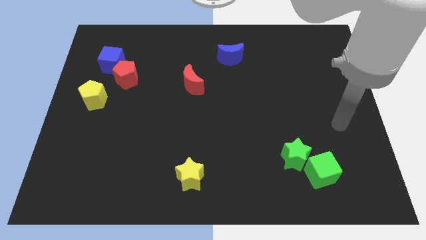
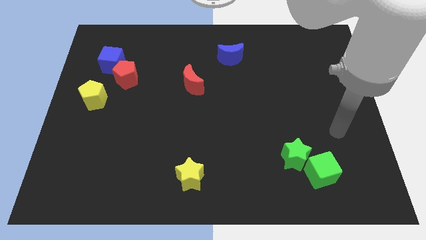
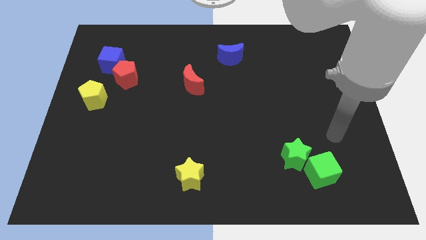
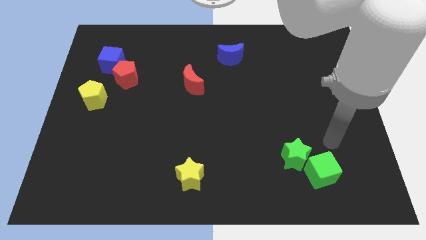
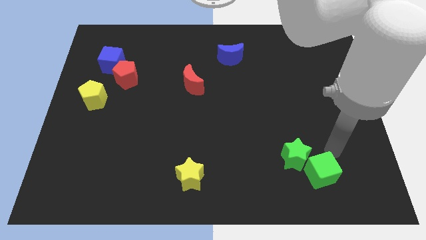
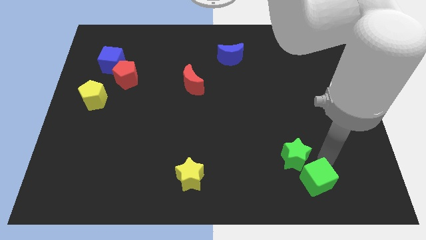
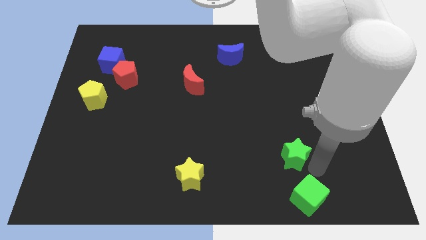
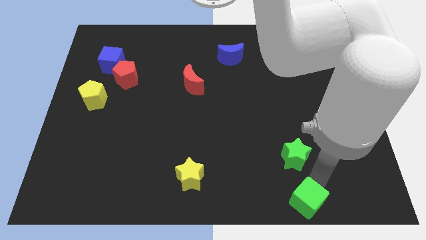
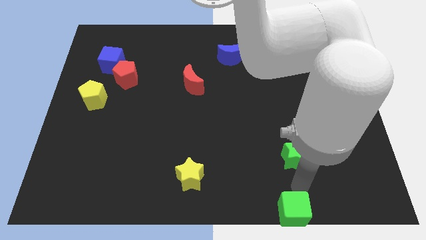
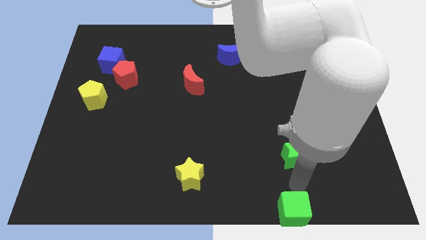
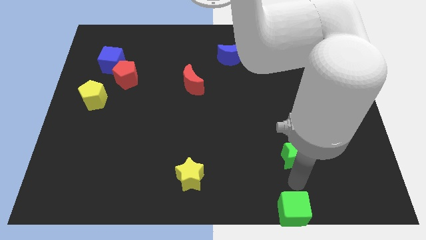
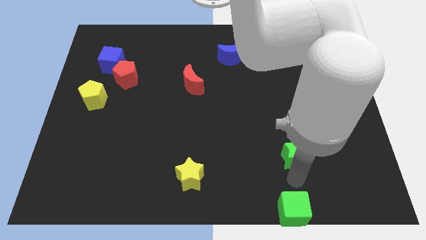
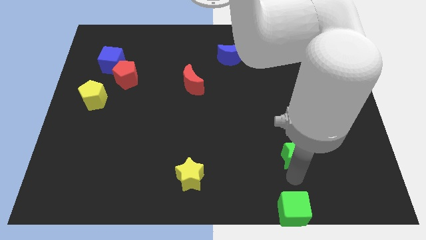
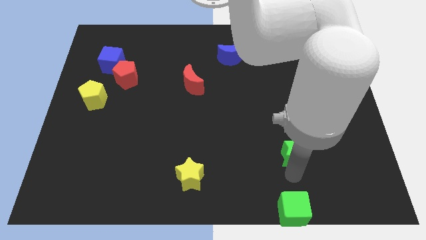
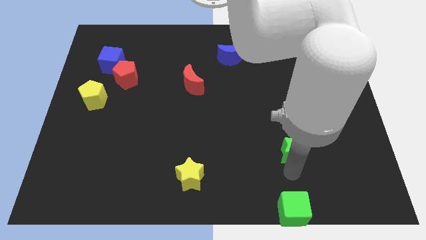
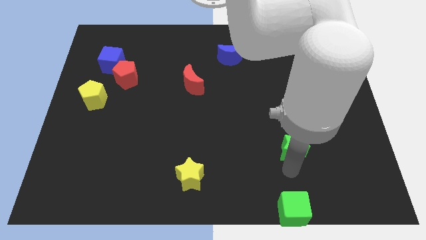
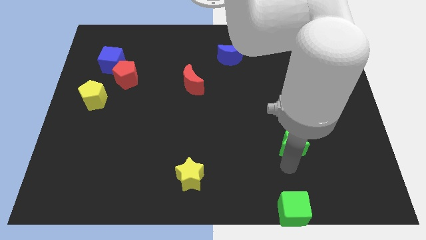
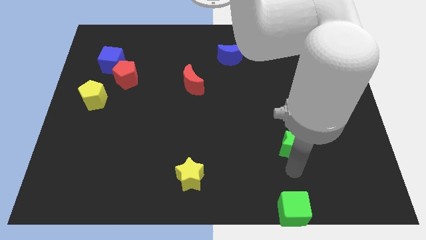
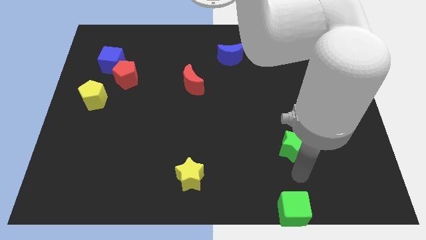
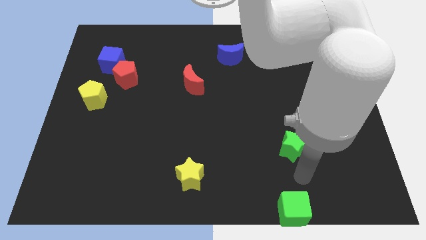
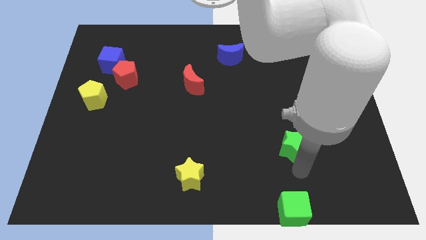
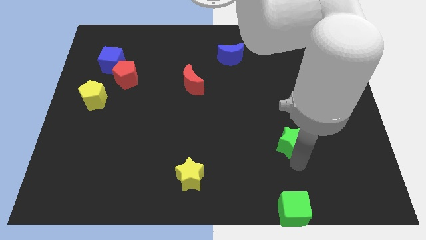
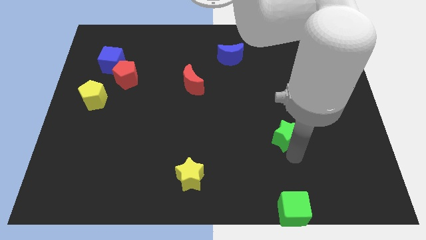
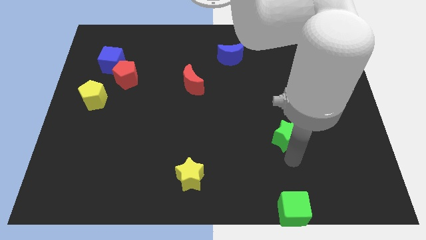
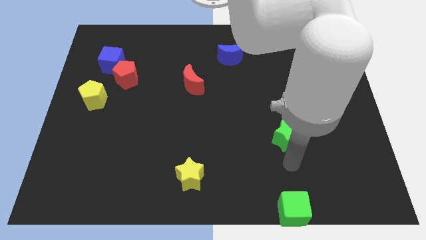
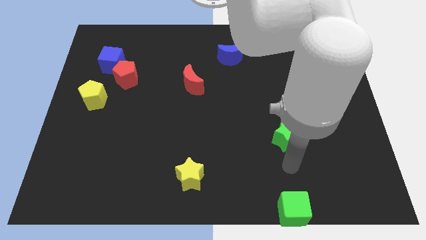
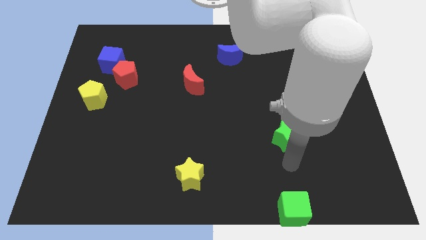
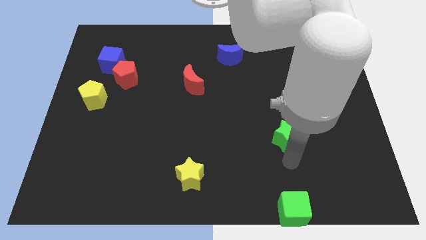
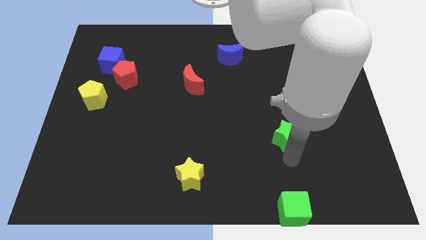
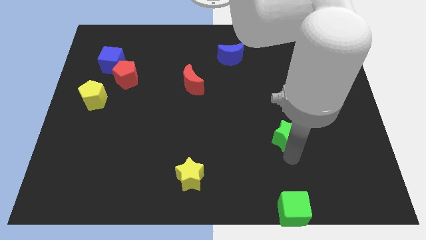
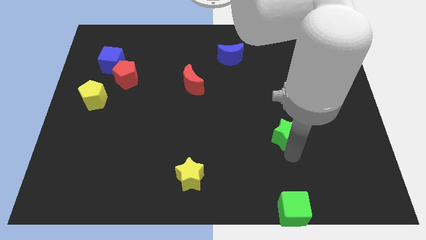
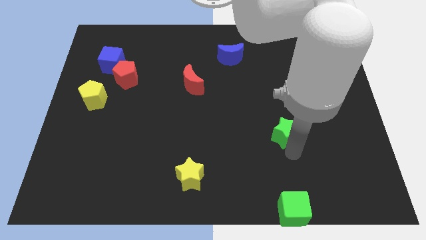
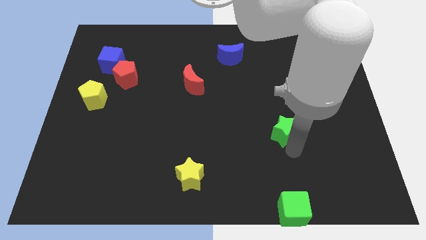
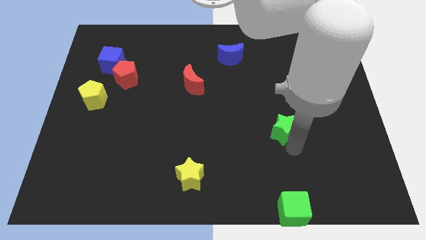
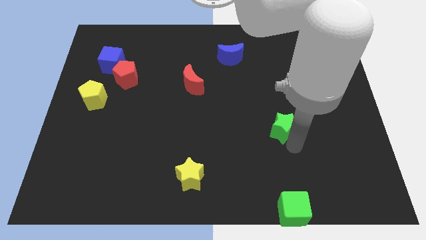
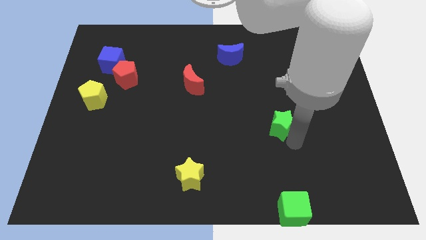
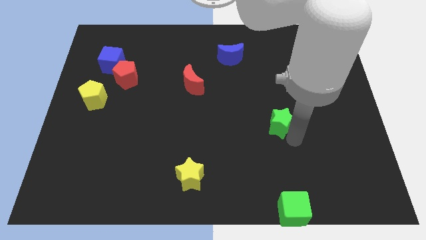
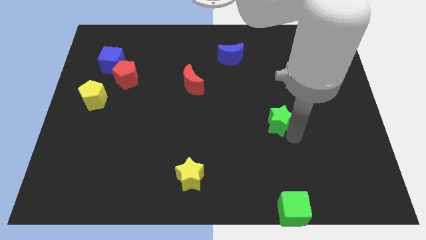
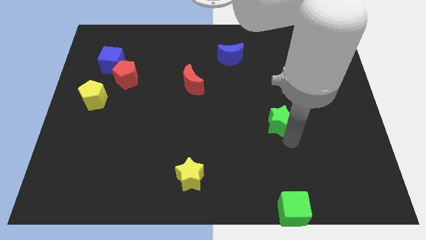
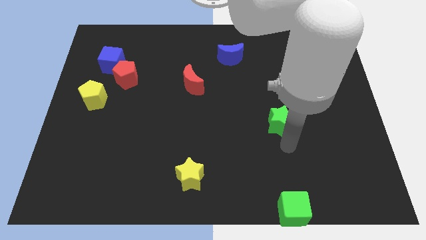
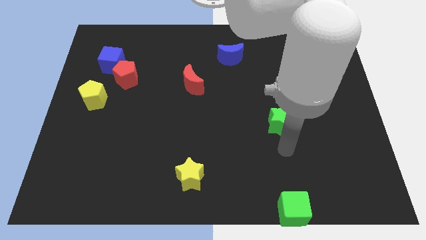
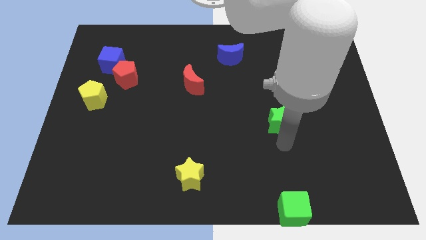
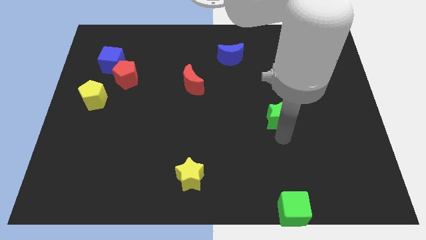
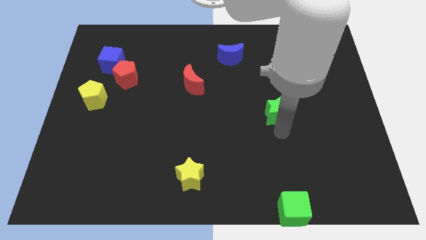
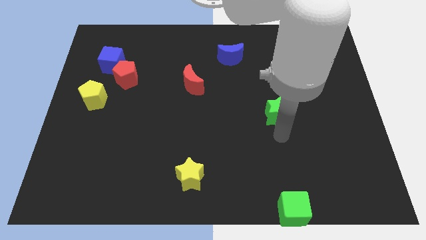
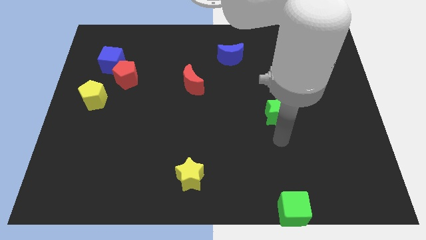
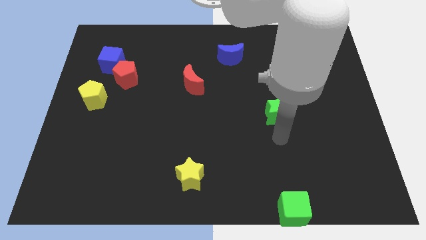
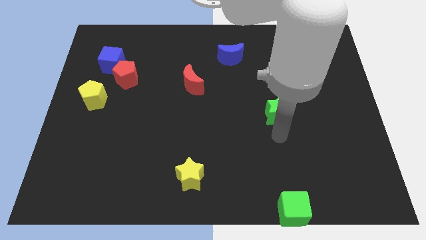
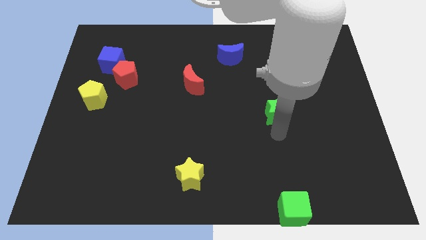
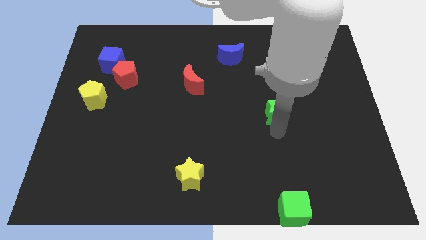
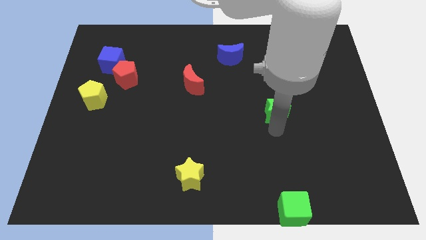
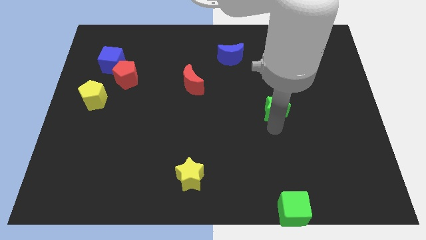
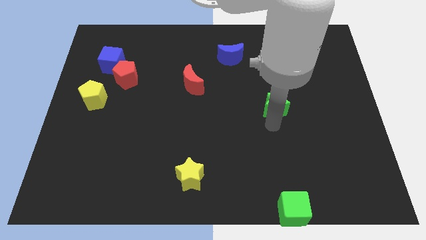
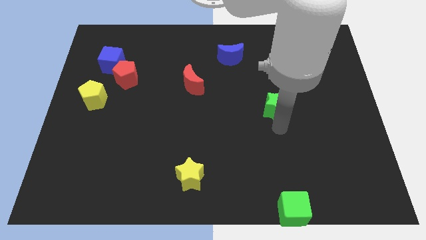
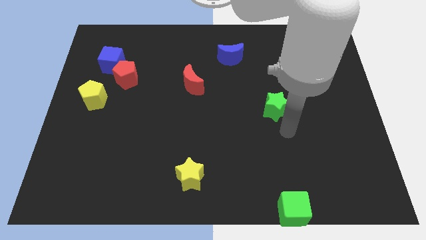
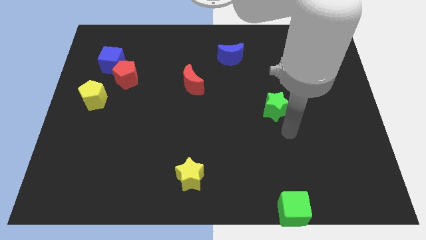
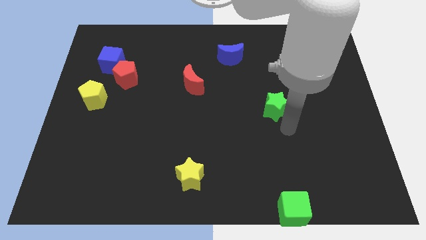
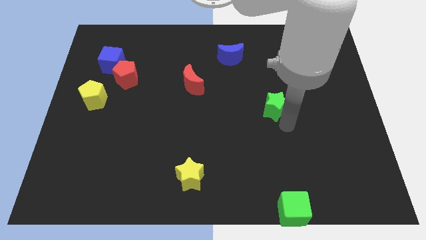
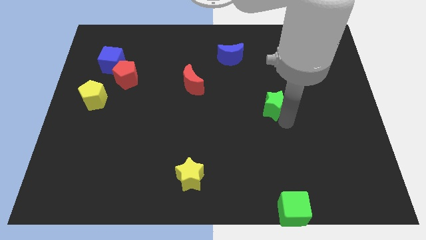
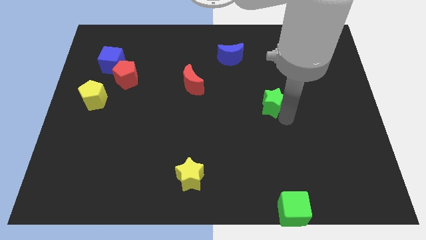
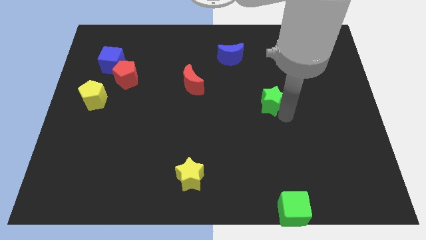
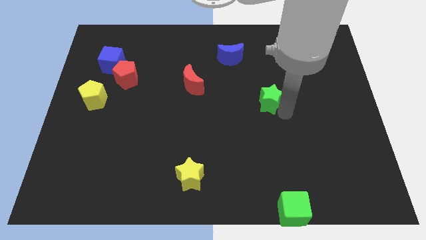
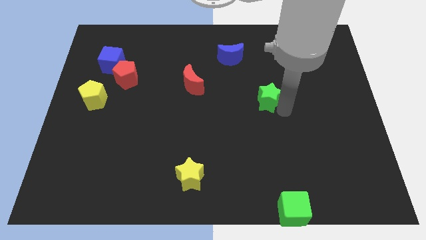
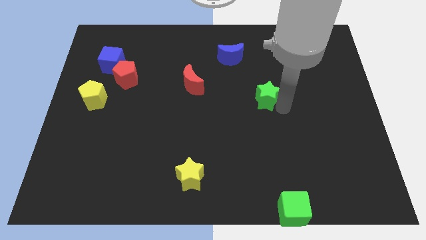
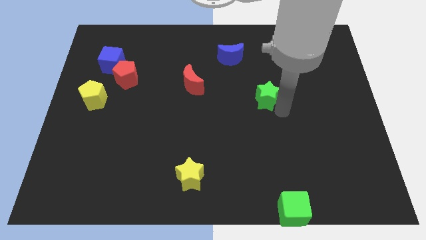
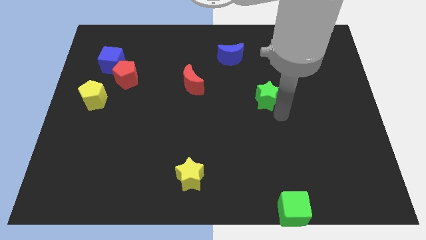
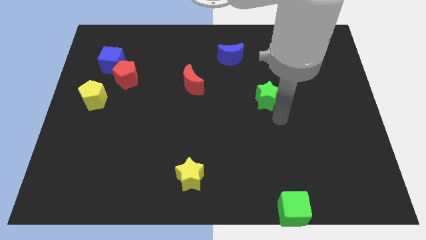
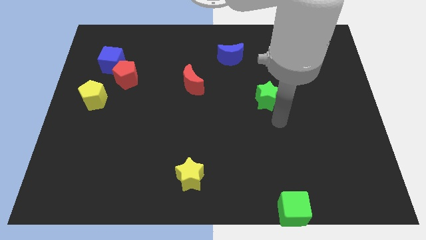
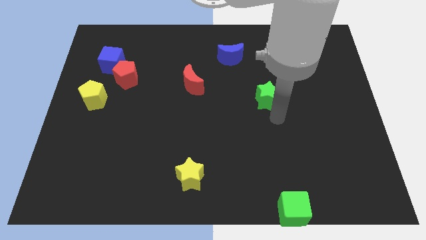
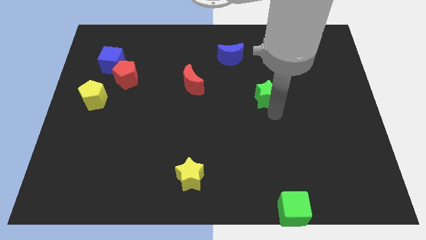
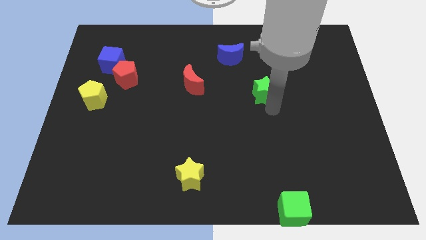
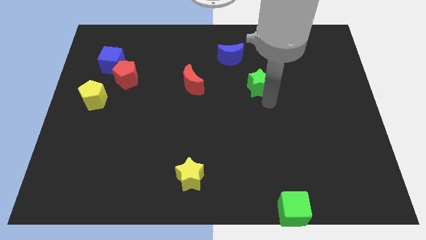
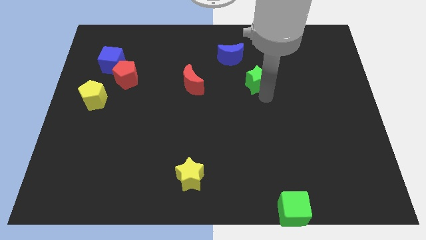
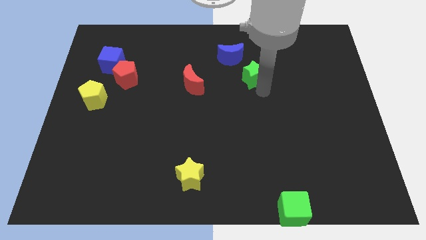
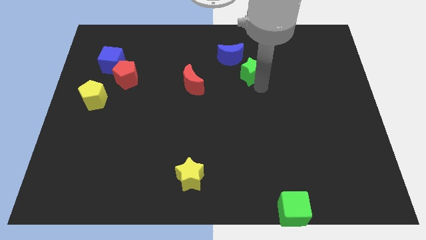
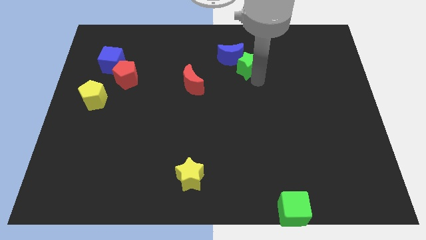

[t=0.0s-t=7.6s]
move the green star to the blue moon
